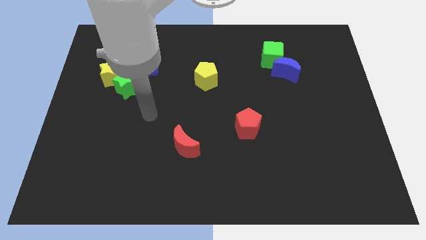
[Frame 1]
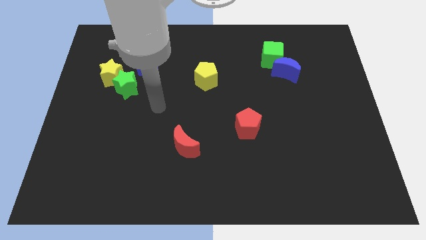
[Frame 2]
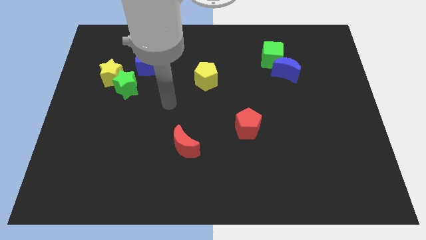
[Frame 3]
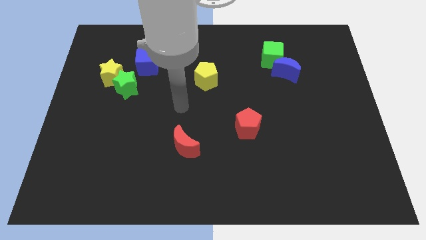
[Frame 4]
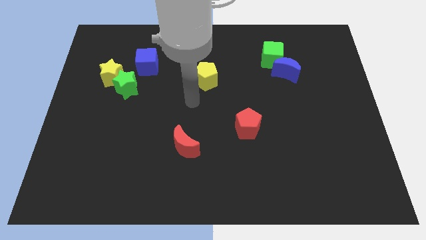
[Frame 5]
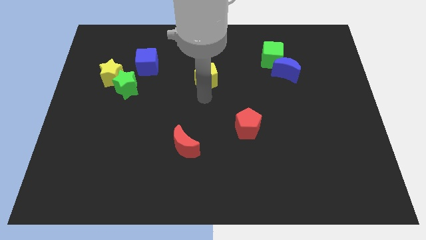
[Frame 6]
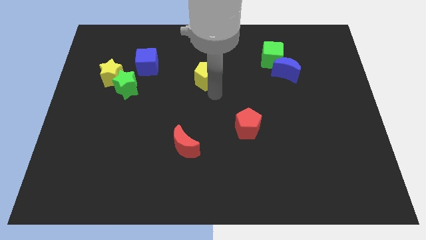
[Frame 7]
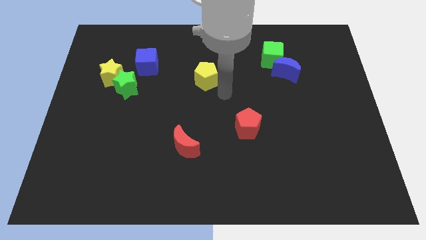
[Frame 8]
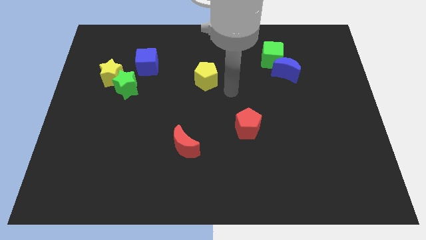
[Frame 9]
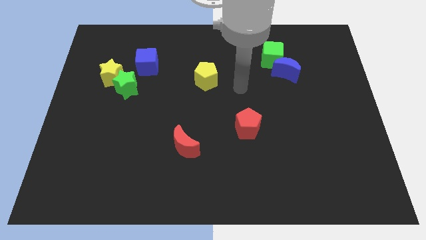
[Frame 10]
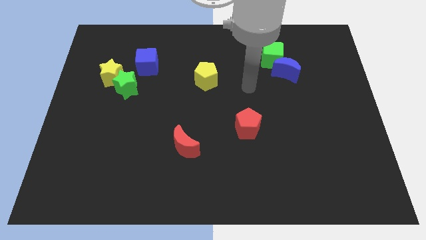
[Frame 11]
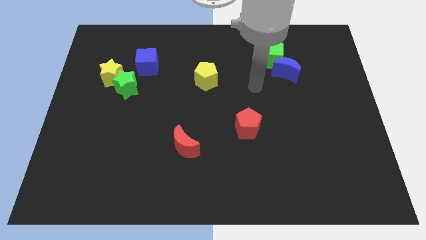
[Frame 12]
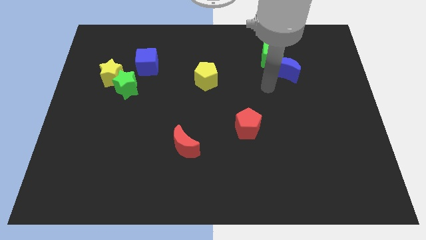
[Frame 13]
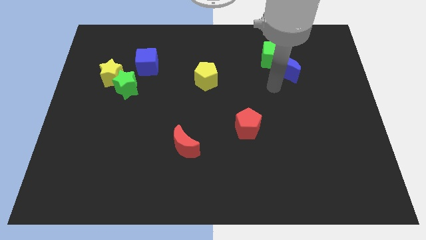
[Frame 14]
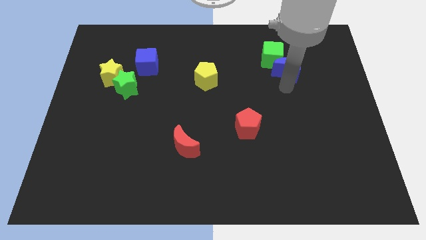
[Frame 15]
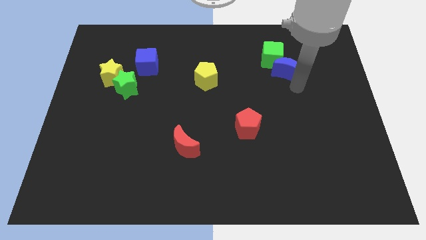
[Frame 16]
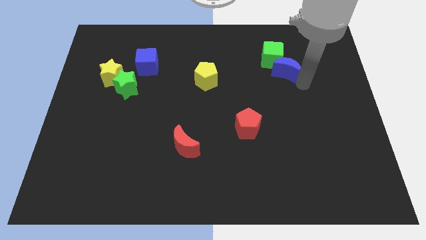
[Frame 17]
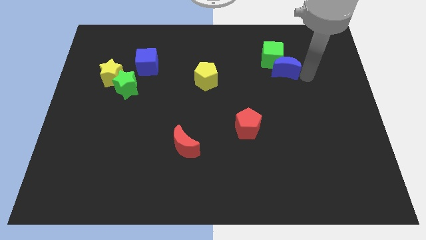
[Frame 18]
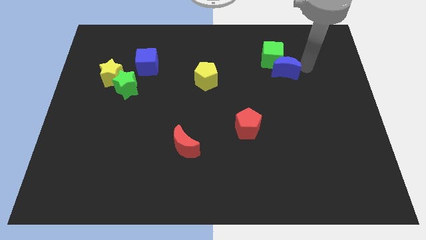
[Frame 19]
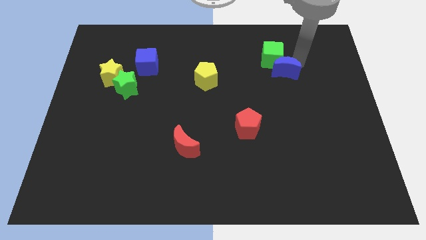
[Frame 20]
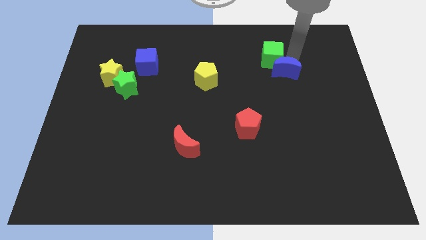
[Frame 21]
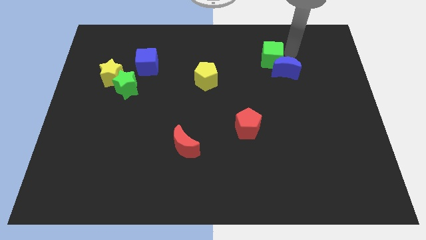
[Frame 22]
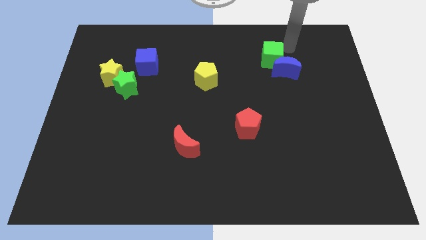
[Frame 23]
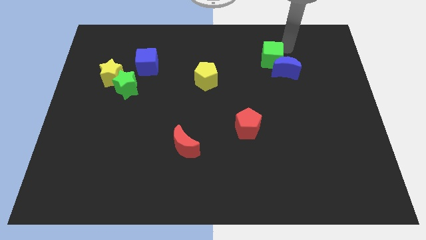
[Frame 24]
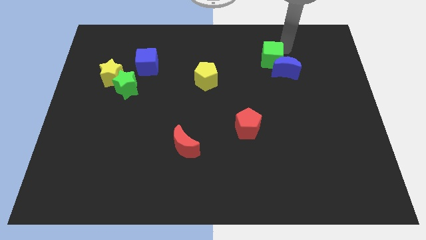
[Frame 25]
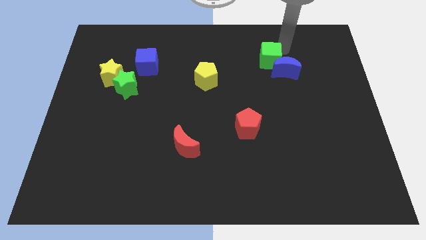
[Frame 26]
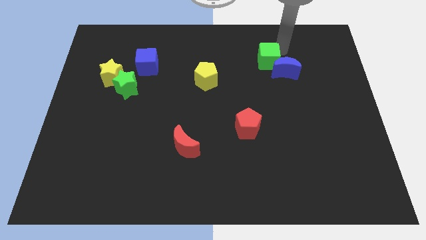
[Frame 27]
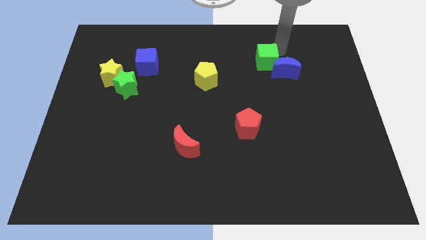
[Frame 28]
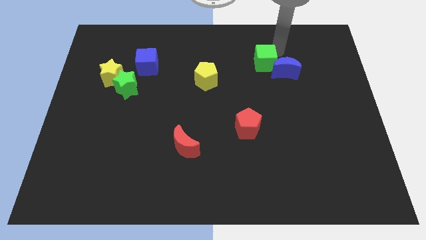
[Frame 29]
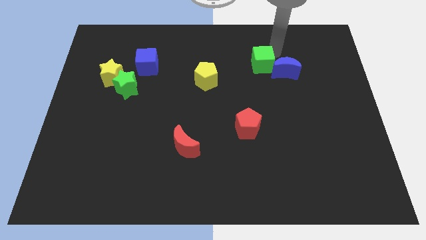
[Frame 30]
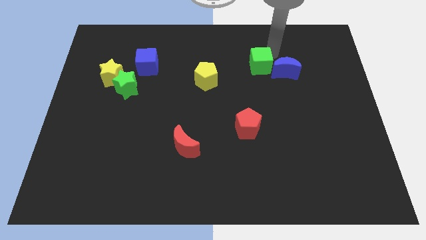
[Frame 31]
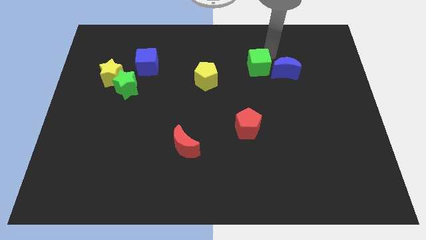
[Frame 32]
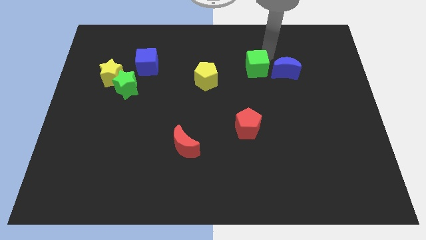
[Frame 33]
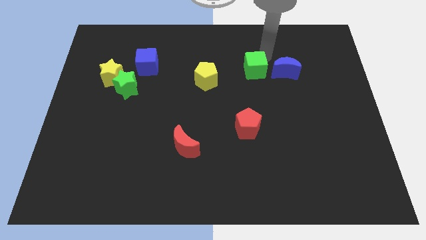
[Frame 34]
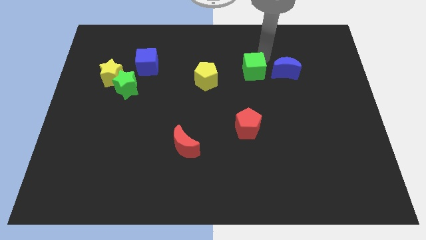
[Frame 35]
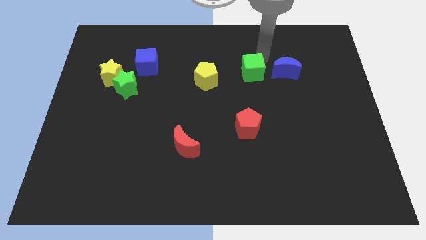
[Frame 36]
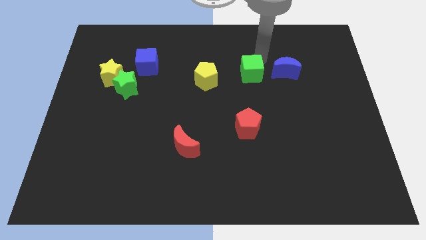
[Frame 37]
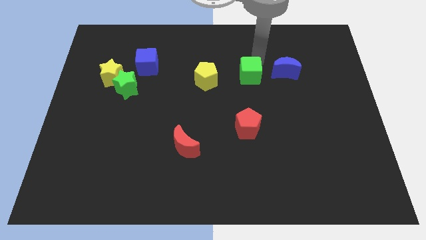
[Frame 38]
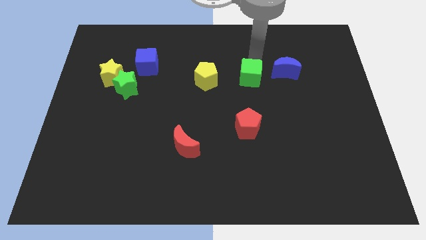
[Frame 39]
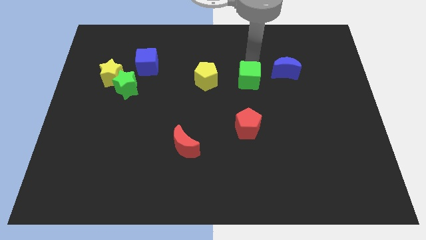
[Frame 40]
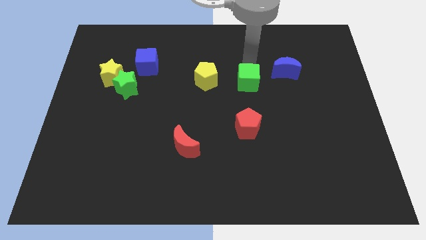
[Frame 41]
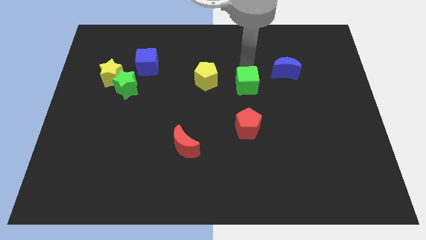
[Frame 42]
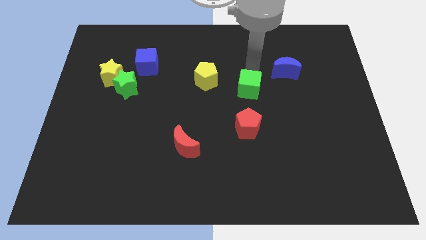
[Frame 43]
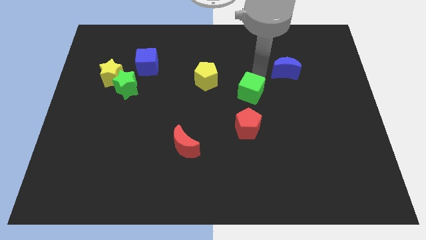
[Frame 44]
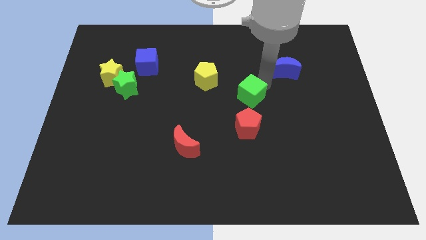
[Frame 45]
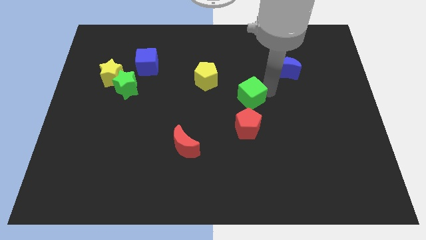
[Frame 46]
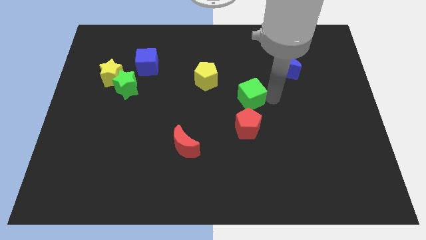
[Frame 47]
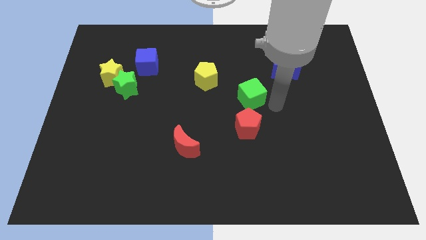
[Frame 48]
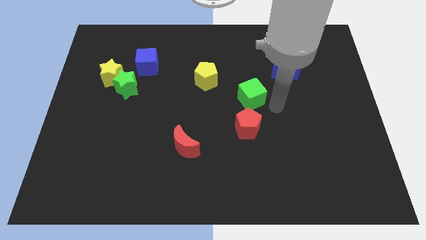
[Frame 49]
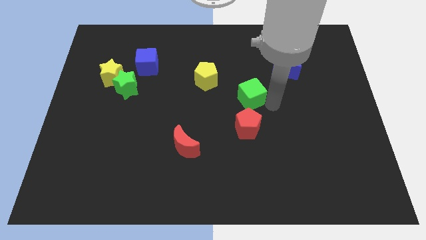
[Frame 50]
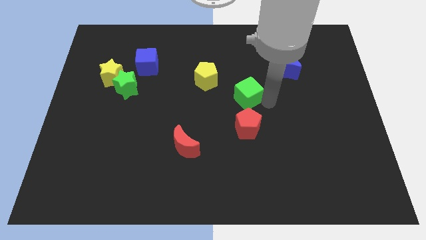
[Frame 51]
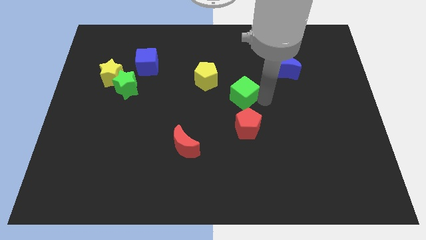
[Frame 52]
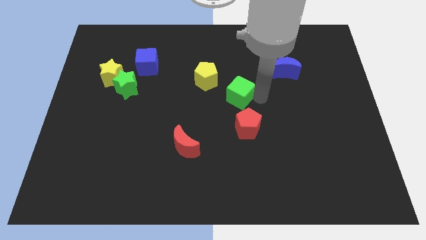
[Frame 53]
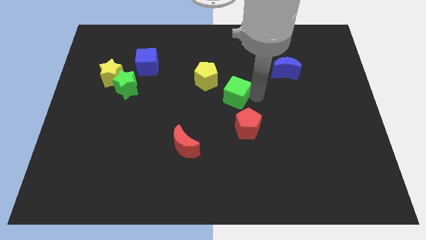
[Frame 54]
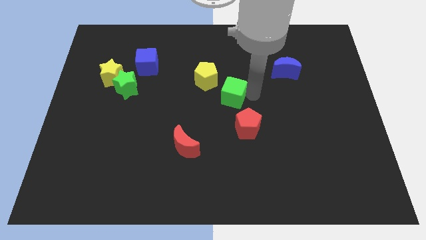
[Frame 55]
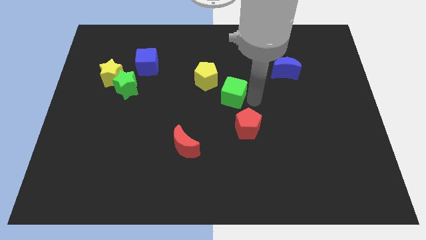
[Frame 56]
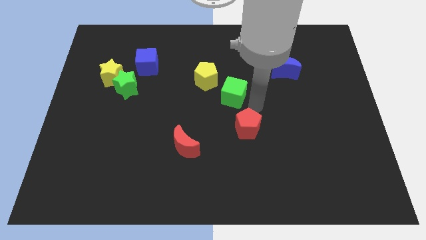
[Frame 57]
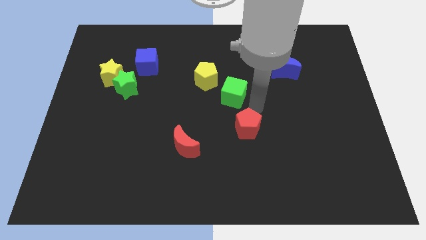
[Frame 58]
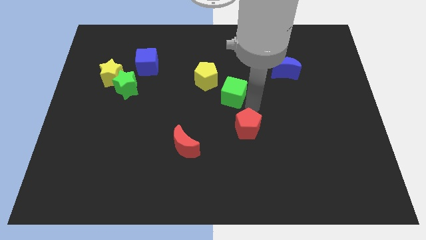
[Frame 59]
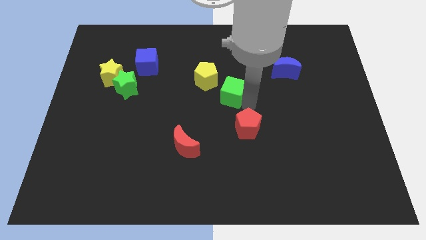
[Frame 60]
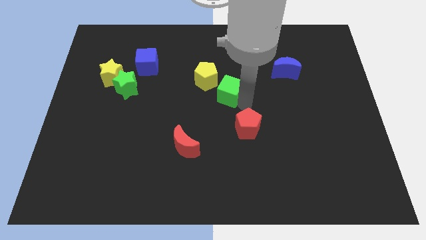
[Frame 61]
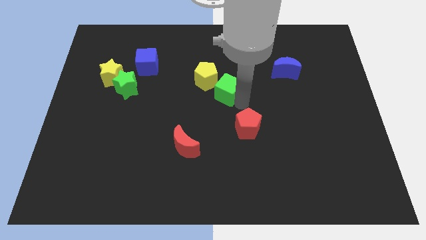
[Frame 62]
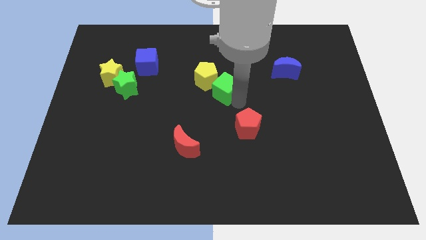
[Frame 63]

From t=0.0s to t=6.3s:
slide the green cube to the yellow pentagon

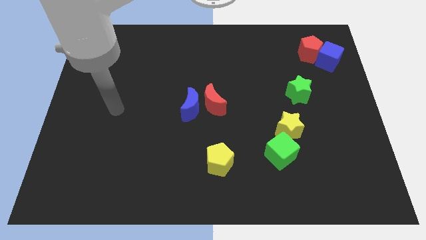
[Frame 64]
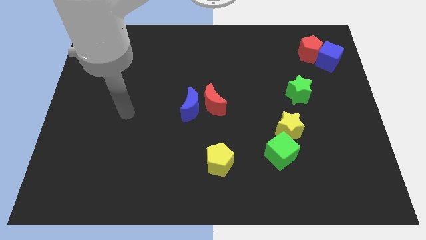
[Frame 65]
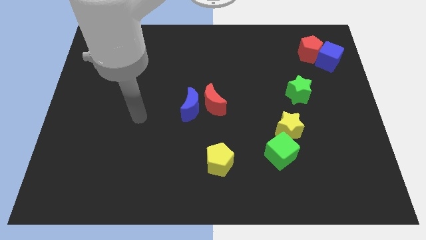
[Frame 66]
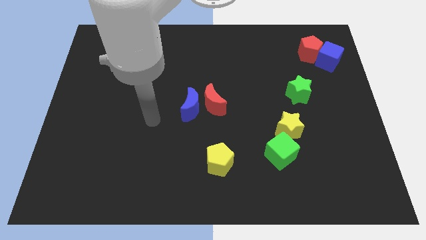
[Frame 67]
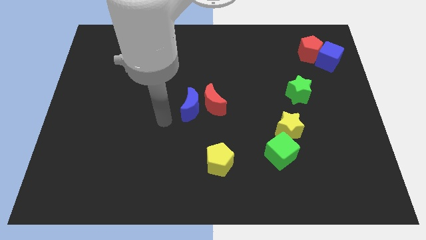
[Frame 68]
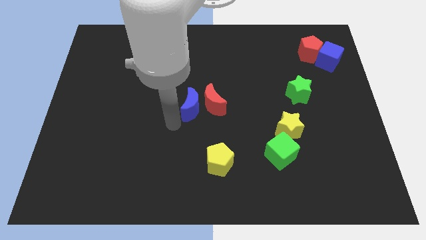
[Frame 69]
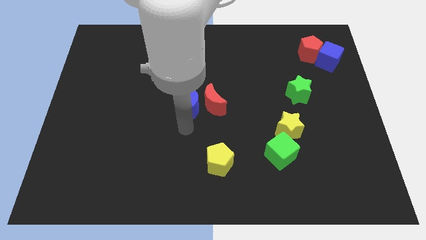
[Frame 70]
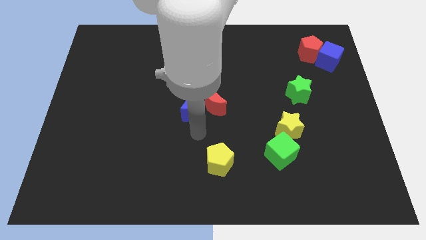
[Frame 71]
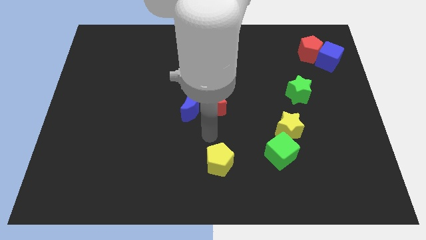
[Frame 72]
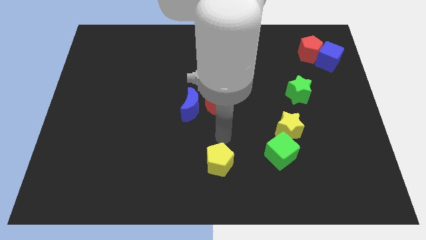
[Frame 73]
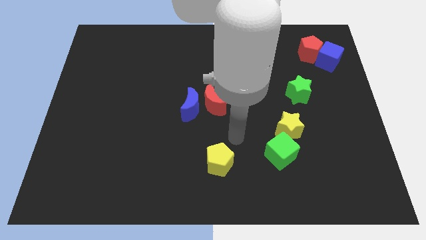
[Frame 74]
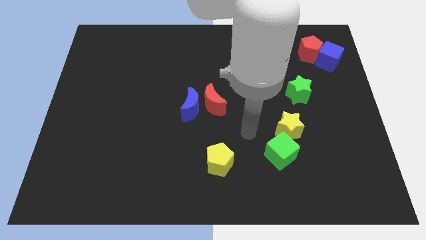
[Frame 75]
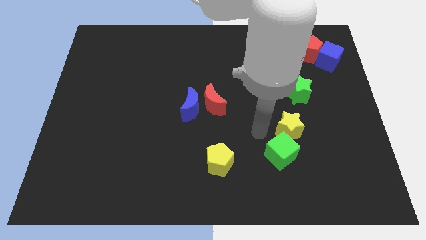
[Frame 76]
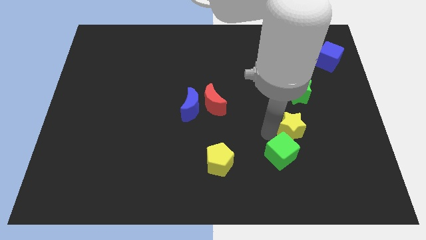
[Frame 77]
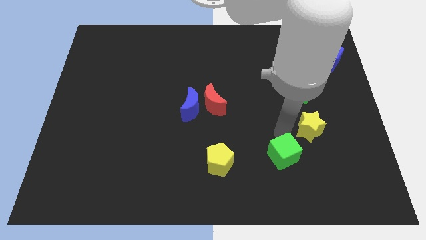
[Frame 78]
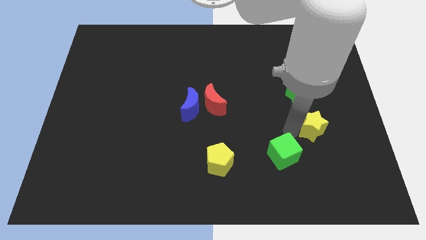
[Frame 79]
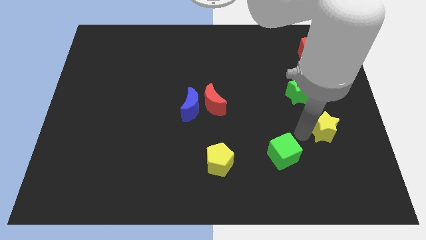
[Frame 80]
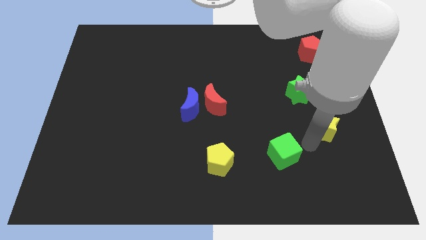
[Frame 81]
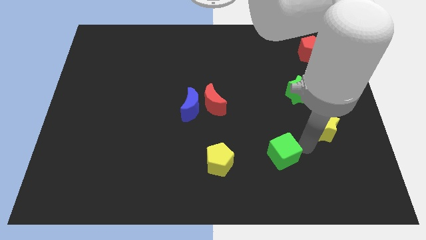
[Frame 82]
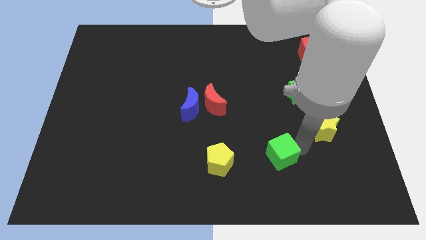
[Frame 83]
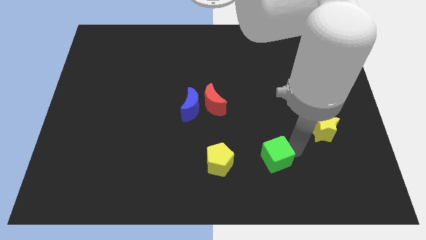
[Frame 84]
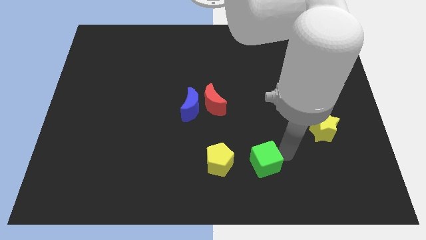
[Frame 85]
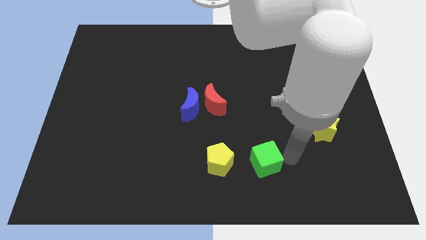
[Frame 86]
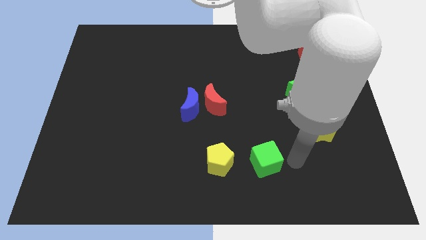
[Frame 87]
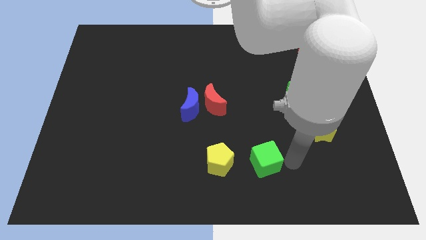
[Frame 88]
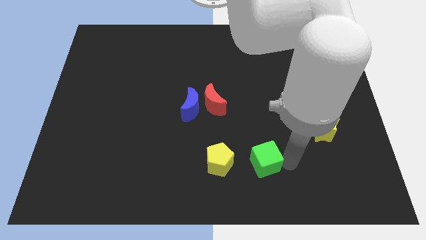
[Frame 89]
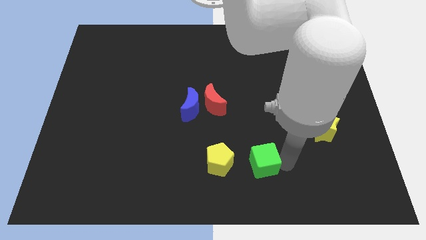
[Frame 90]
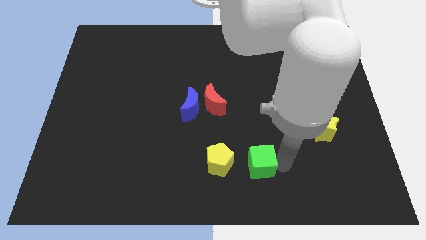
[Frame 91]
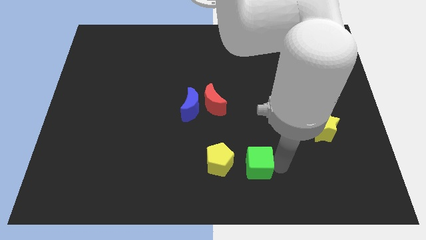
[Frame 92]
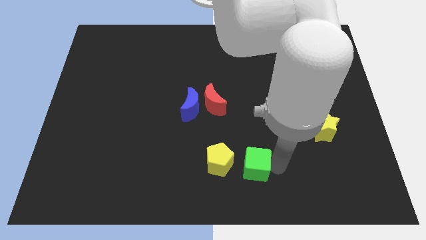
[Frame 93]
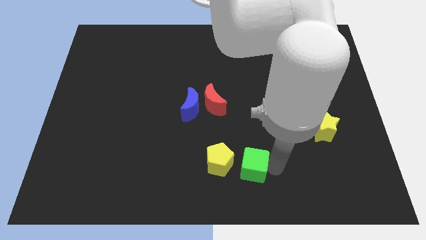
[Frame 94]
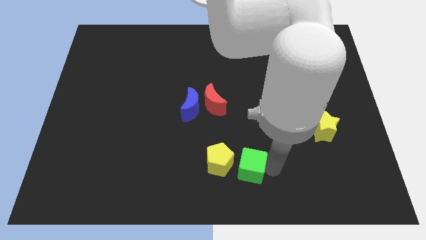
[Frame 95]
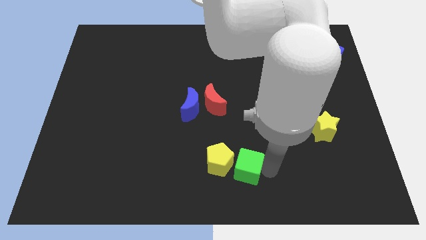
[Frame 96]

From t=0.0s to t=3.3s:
move the green cube next to the yellow pentagon
